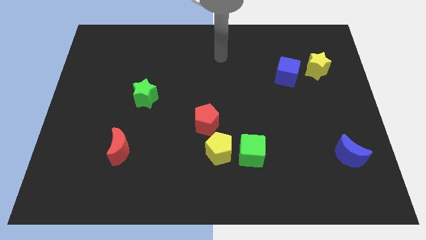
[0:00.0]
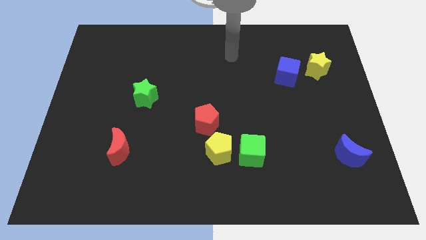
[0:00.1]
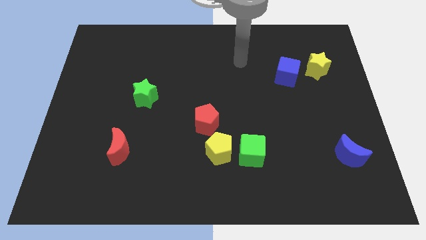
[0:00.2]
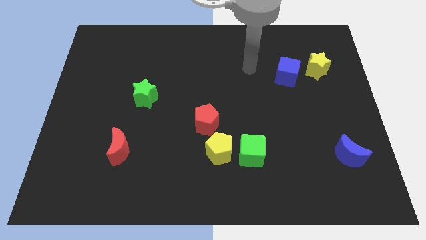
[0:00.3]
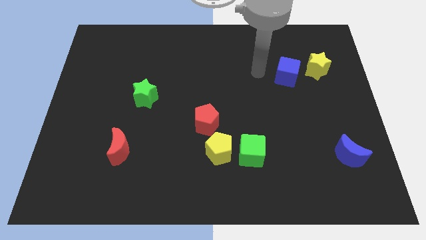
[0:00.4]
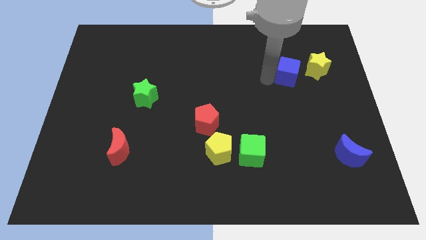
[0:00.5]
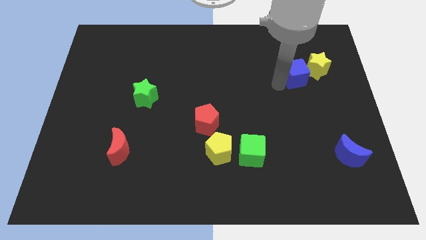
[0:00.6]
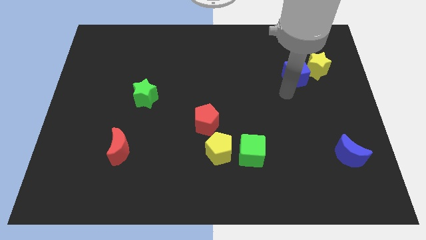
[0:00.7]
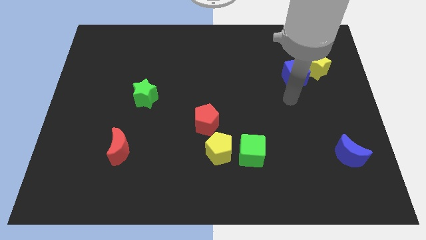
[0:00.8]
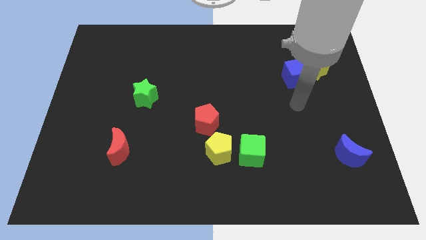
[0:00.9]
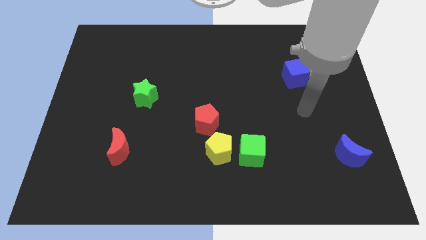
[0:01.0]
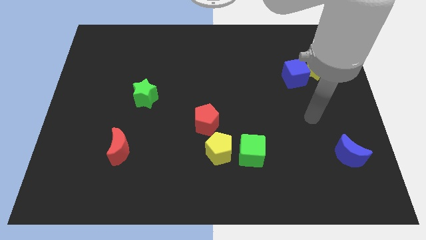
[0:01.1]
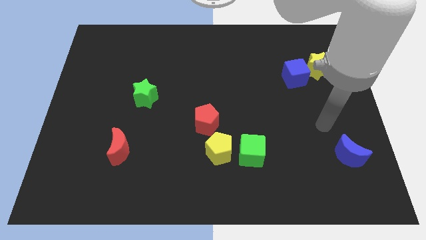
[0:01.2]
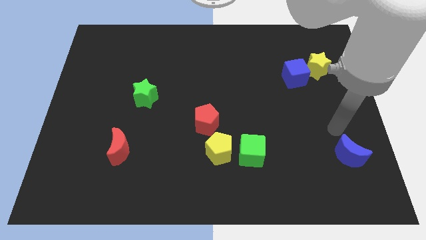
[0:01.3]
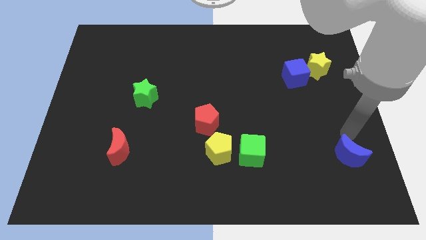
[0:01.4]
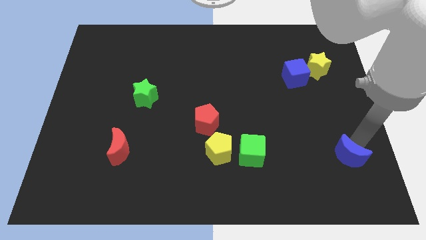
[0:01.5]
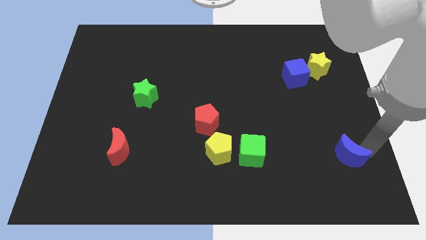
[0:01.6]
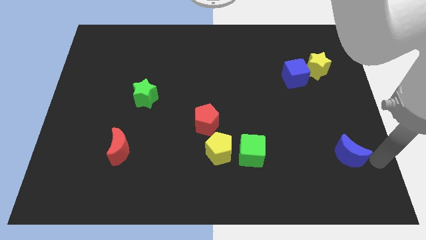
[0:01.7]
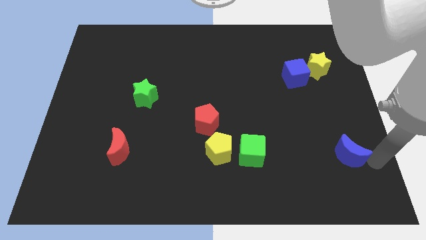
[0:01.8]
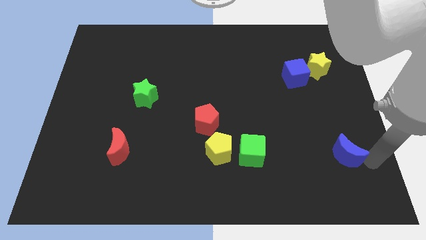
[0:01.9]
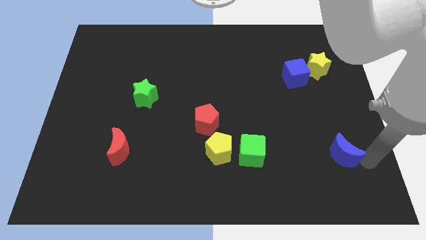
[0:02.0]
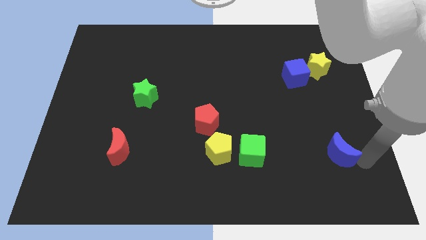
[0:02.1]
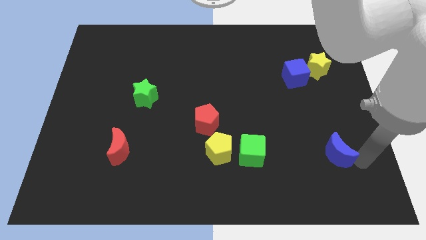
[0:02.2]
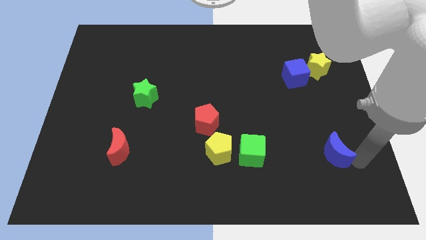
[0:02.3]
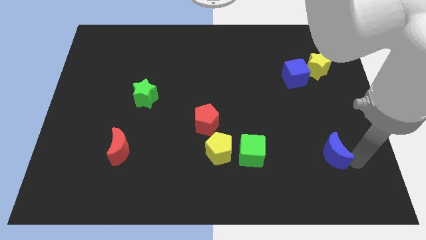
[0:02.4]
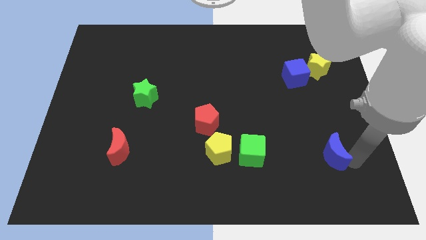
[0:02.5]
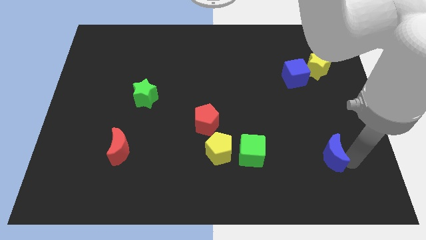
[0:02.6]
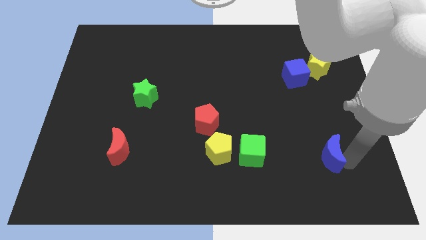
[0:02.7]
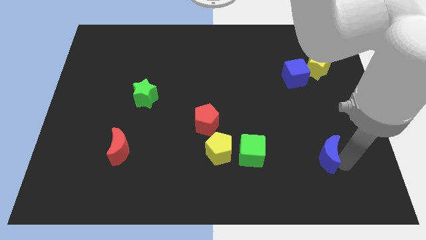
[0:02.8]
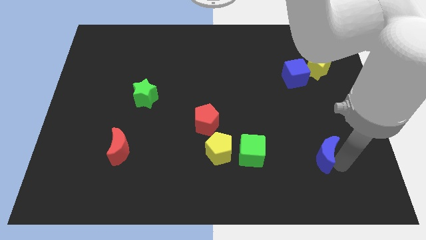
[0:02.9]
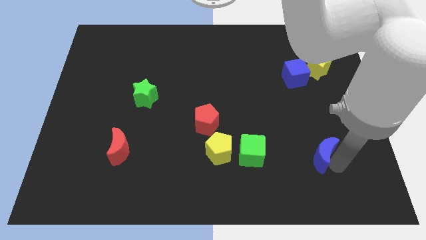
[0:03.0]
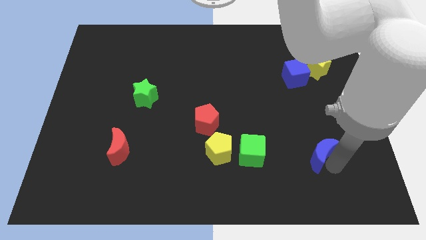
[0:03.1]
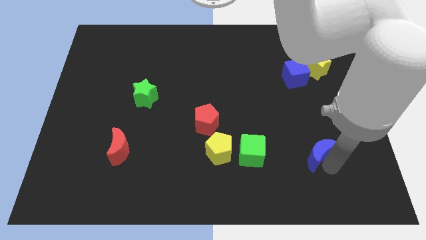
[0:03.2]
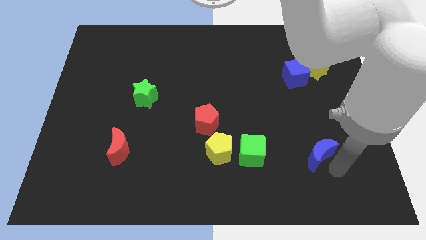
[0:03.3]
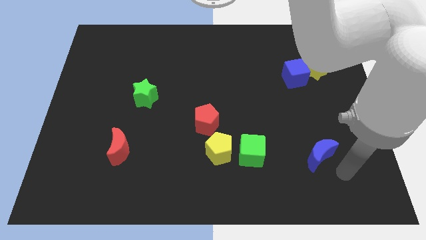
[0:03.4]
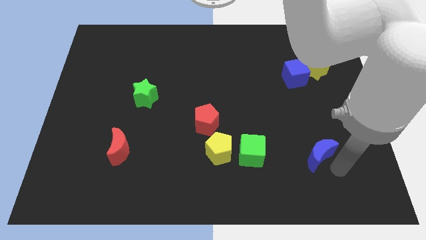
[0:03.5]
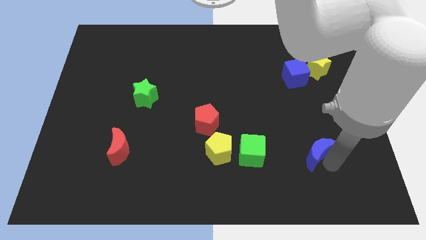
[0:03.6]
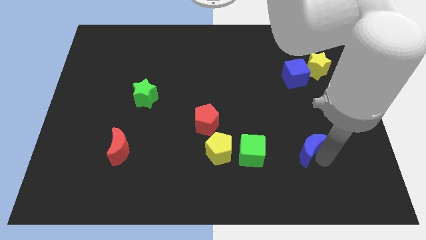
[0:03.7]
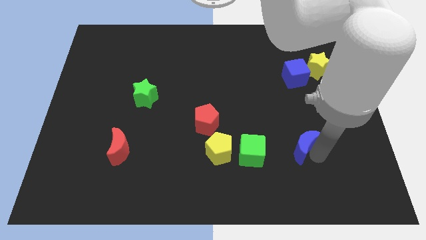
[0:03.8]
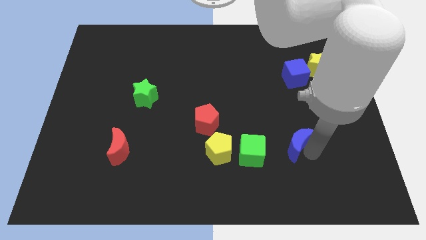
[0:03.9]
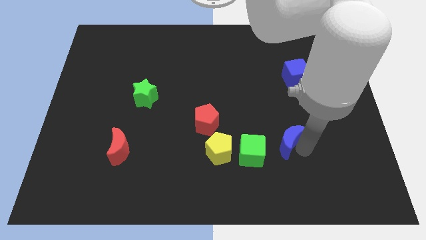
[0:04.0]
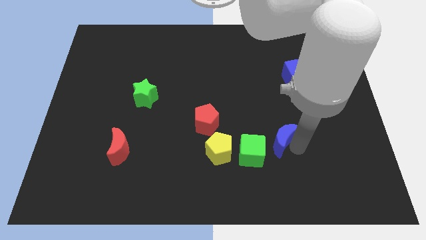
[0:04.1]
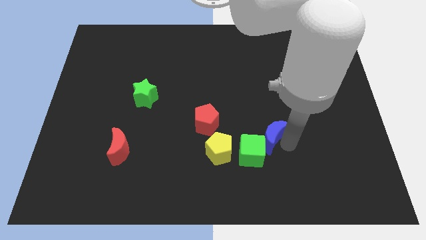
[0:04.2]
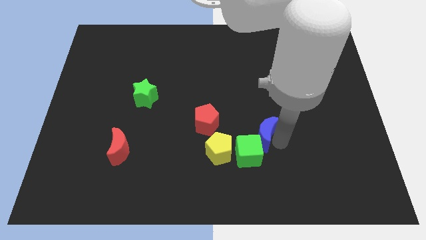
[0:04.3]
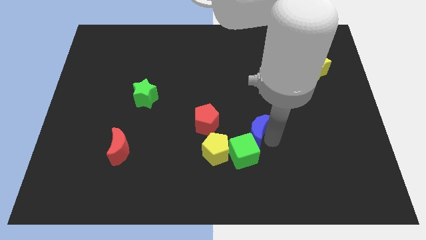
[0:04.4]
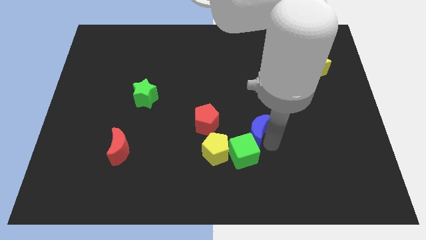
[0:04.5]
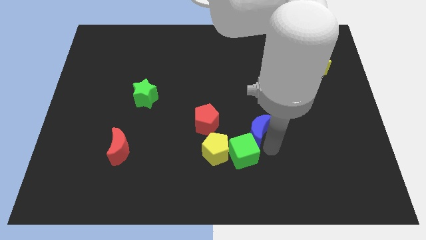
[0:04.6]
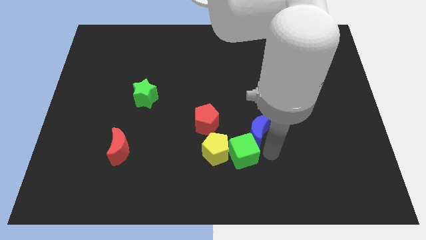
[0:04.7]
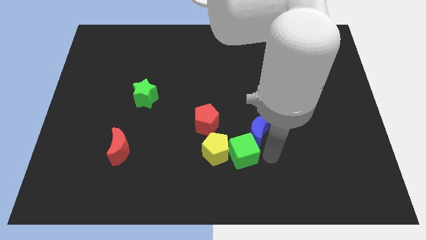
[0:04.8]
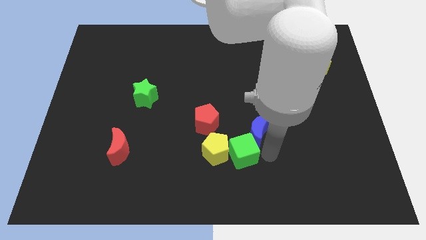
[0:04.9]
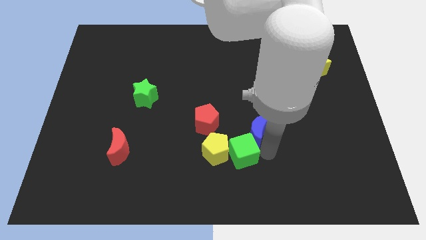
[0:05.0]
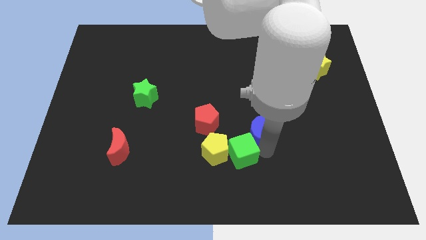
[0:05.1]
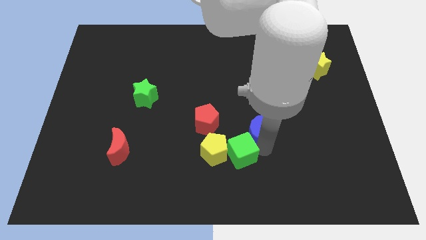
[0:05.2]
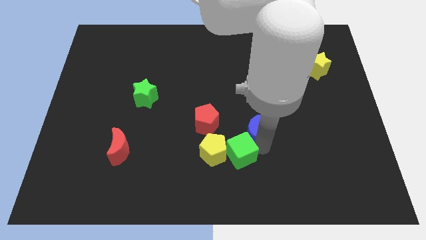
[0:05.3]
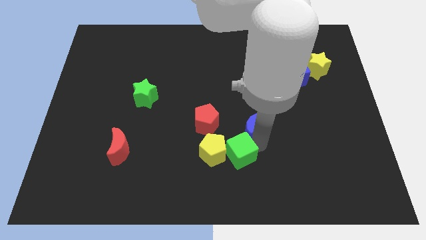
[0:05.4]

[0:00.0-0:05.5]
put the blue moon to the center

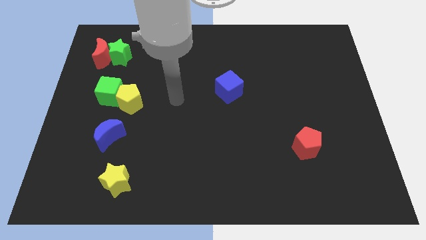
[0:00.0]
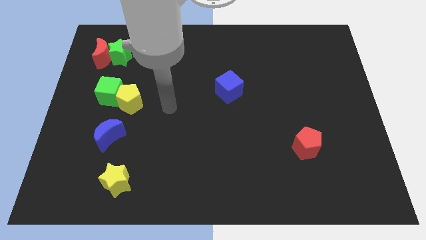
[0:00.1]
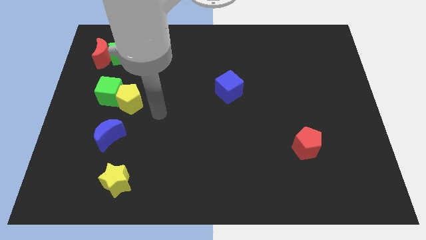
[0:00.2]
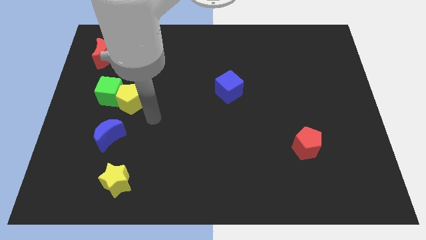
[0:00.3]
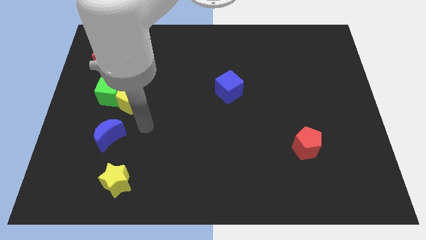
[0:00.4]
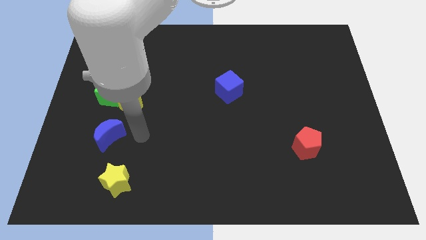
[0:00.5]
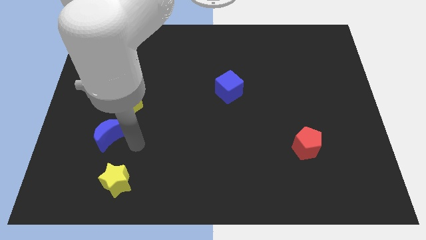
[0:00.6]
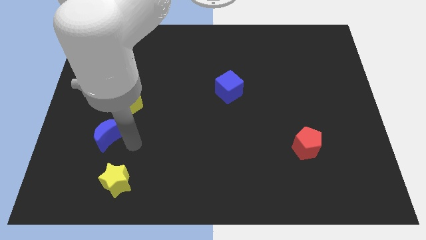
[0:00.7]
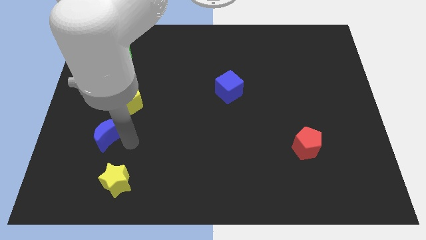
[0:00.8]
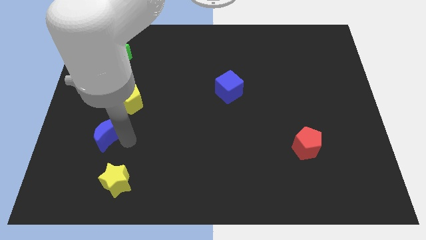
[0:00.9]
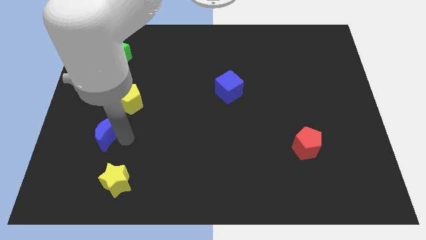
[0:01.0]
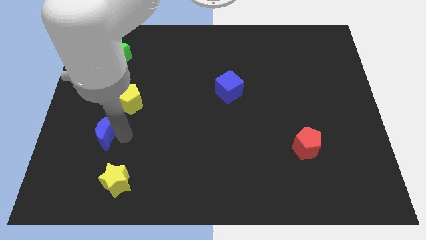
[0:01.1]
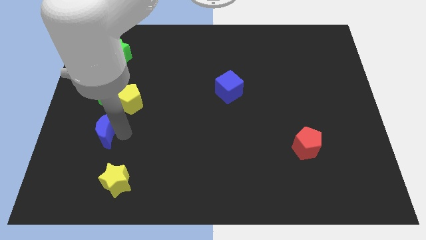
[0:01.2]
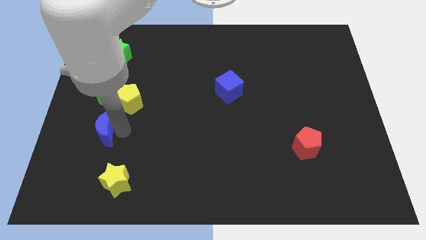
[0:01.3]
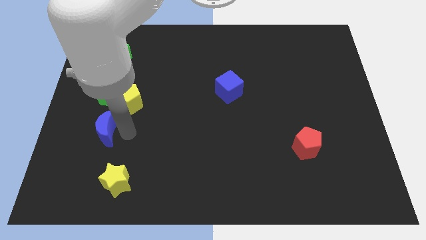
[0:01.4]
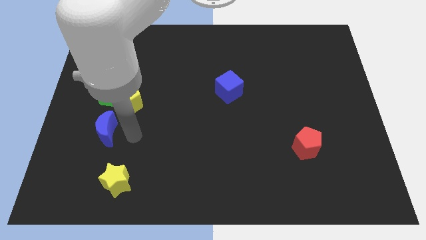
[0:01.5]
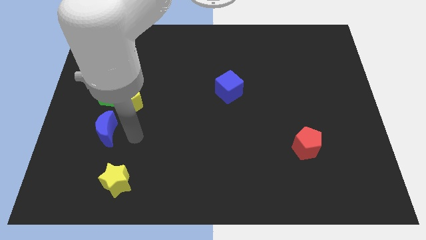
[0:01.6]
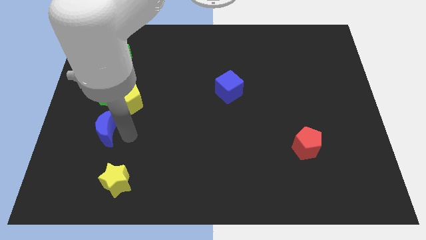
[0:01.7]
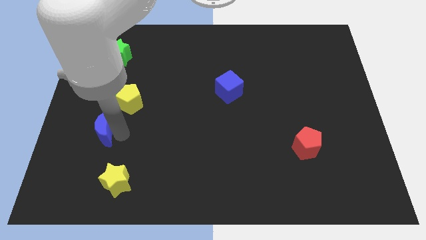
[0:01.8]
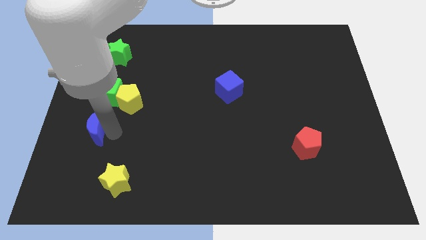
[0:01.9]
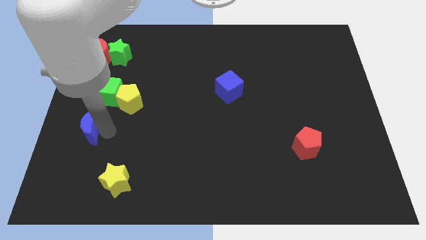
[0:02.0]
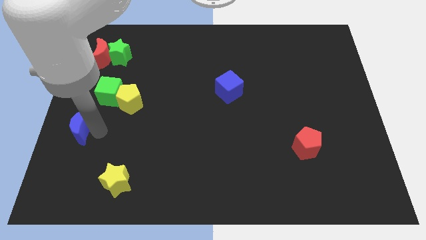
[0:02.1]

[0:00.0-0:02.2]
put the blue moon to the left side
